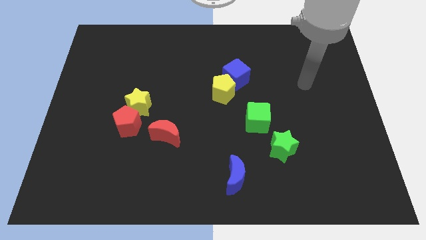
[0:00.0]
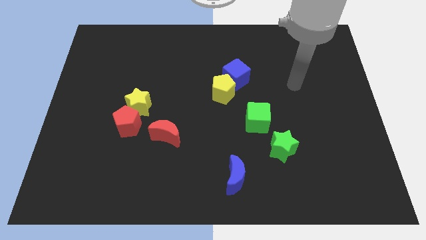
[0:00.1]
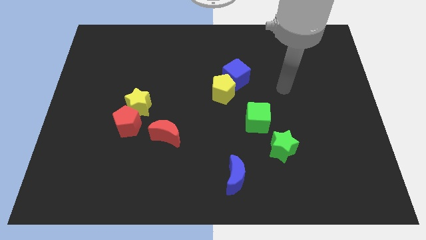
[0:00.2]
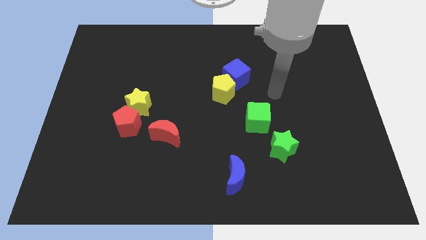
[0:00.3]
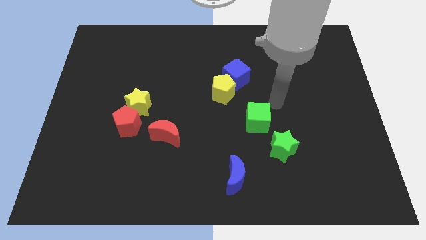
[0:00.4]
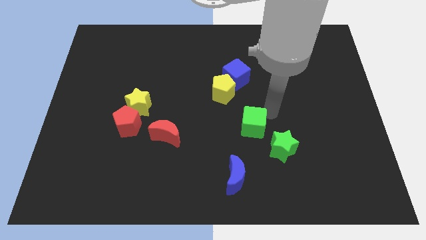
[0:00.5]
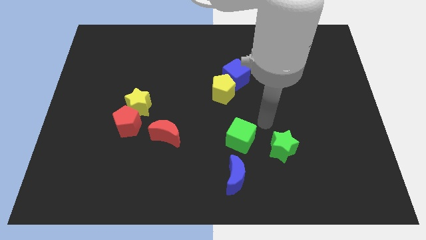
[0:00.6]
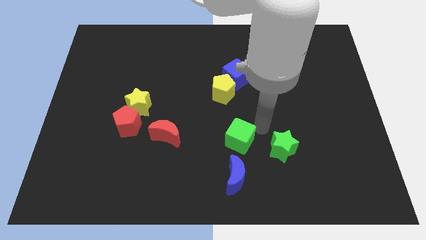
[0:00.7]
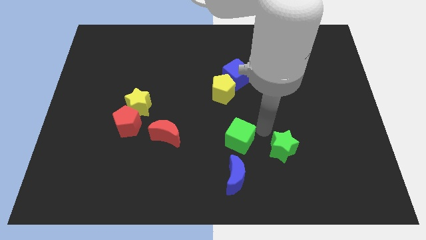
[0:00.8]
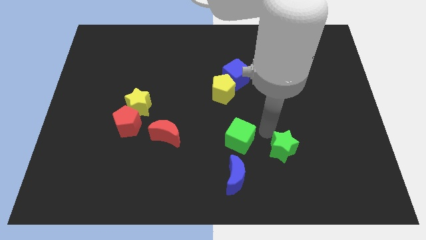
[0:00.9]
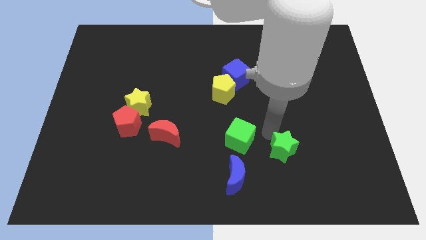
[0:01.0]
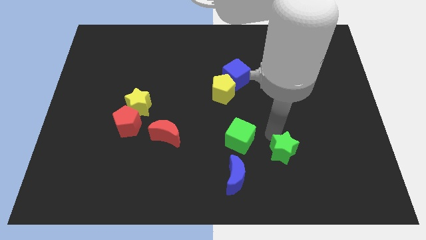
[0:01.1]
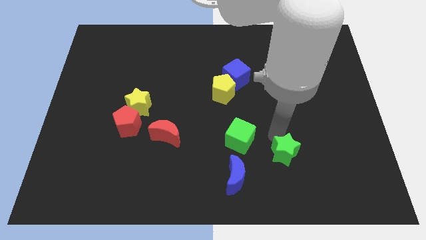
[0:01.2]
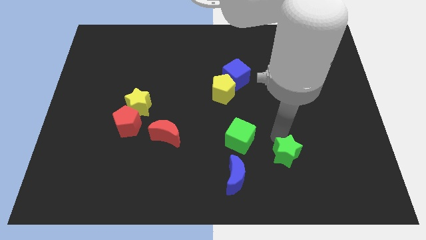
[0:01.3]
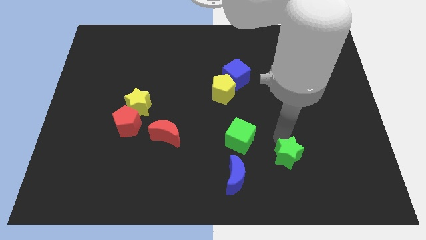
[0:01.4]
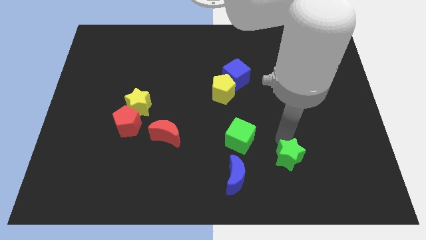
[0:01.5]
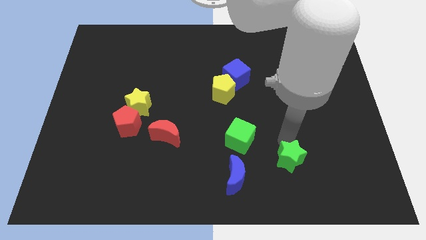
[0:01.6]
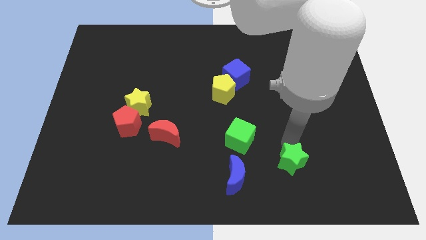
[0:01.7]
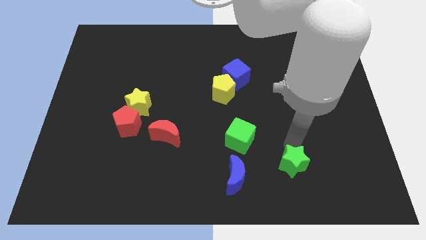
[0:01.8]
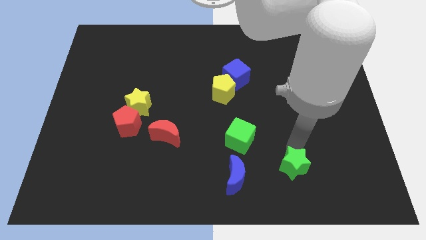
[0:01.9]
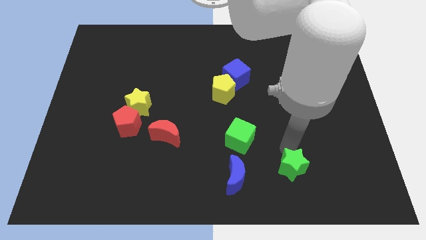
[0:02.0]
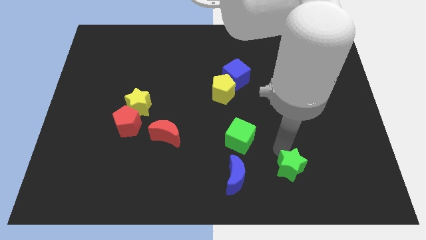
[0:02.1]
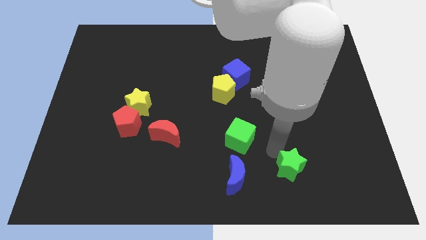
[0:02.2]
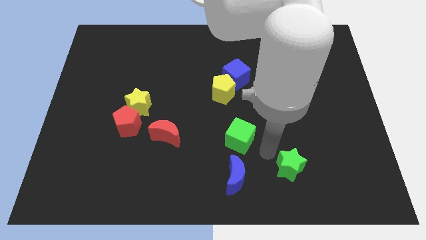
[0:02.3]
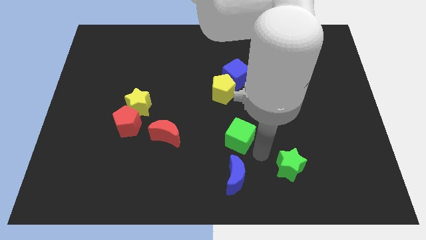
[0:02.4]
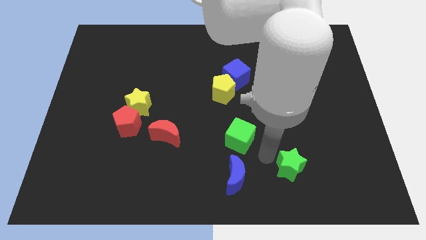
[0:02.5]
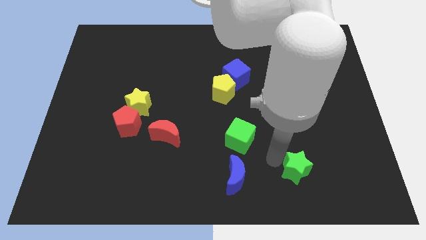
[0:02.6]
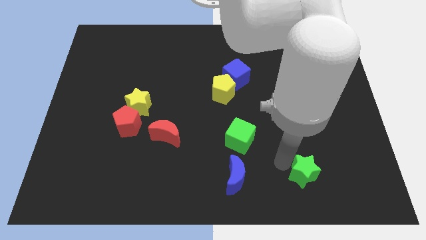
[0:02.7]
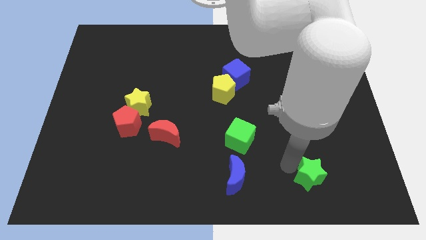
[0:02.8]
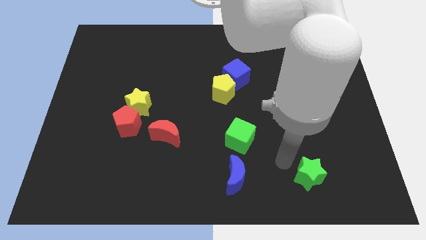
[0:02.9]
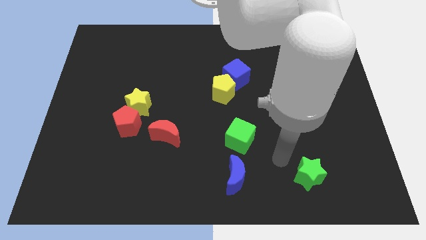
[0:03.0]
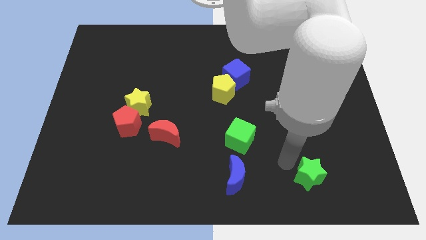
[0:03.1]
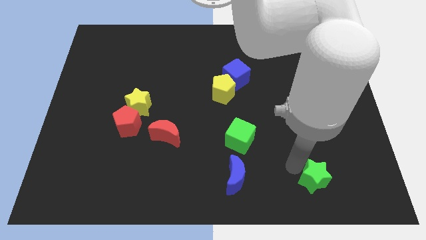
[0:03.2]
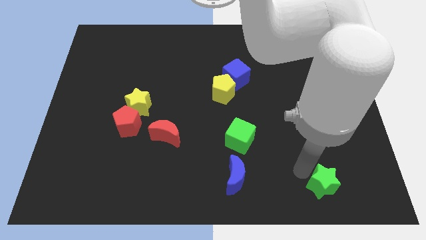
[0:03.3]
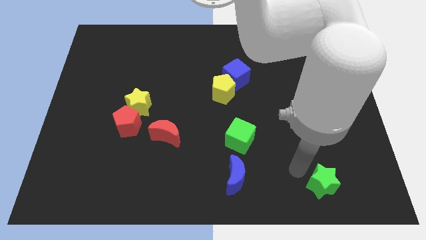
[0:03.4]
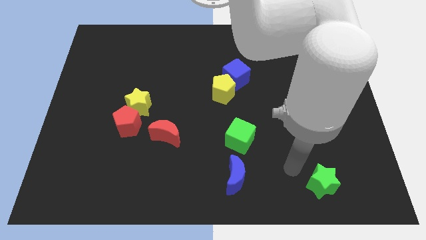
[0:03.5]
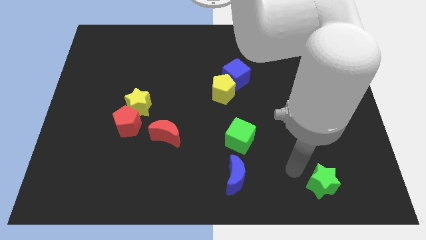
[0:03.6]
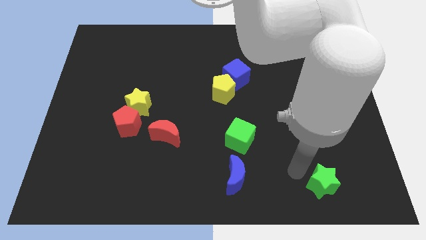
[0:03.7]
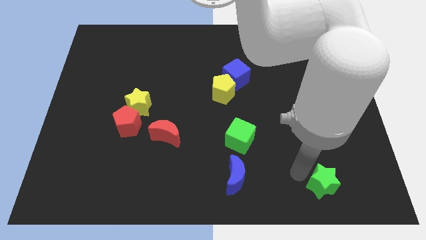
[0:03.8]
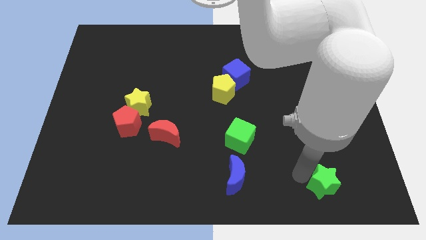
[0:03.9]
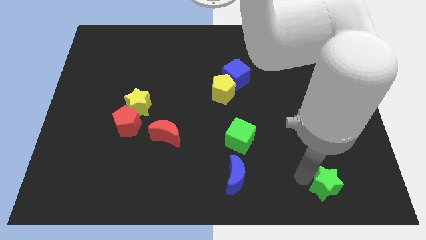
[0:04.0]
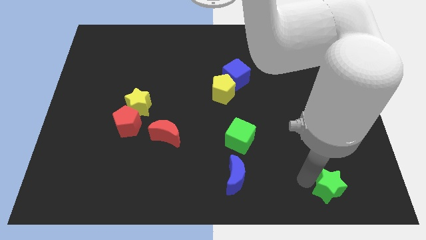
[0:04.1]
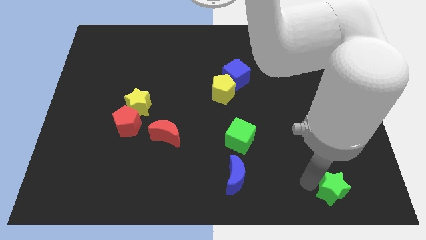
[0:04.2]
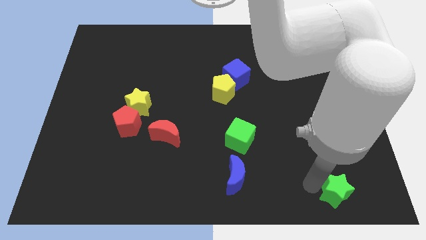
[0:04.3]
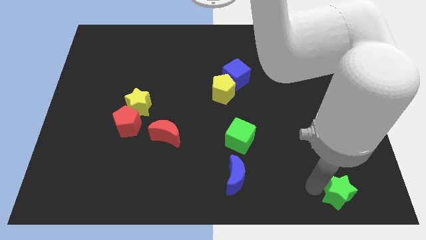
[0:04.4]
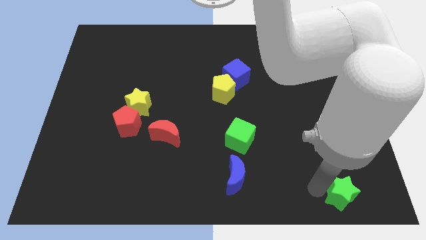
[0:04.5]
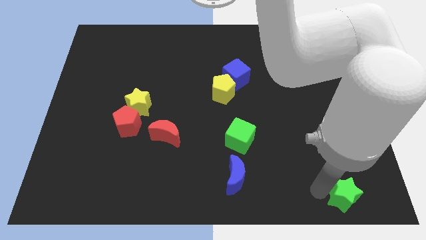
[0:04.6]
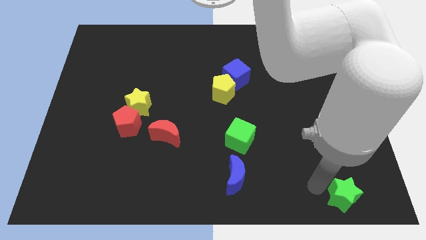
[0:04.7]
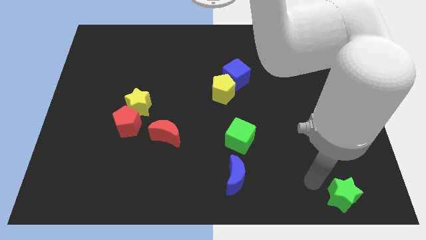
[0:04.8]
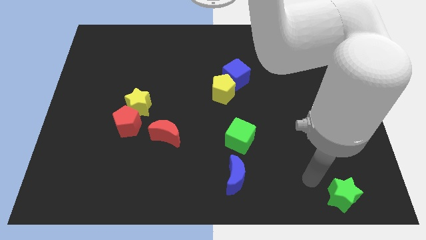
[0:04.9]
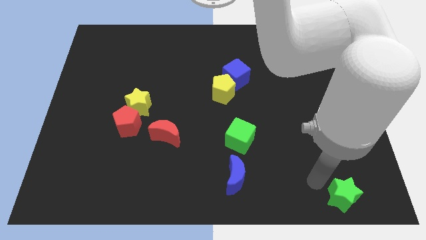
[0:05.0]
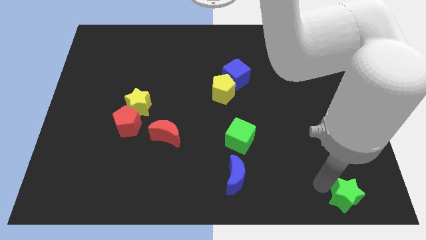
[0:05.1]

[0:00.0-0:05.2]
push the green star to the bottom right

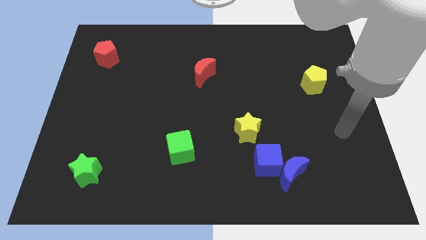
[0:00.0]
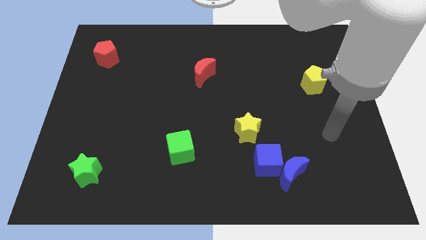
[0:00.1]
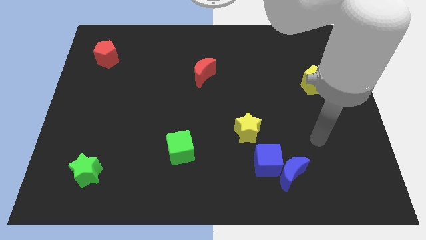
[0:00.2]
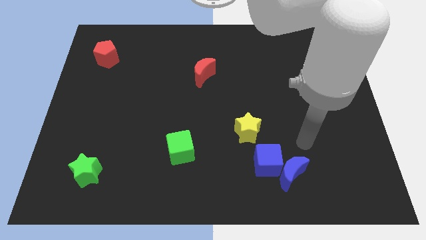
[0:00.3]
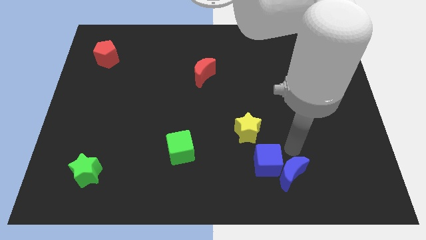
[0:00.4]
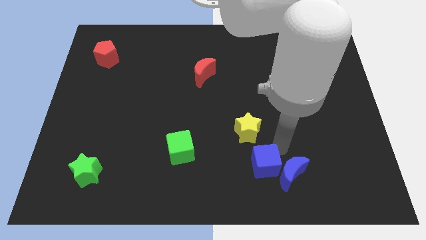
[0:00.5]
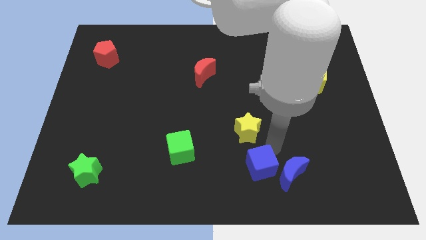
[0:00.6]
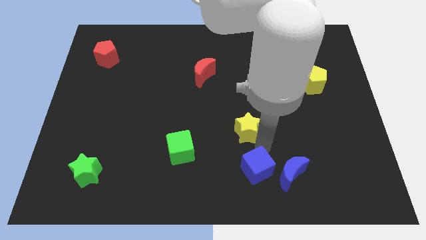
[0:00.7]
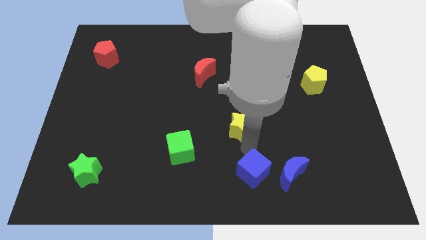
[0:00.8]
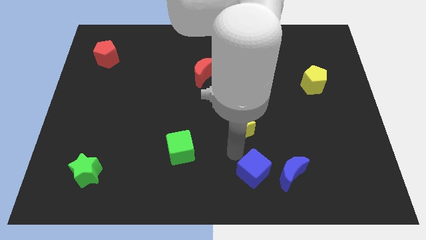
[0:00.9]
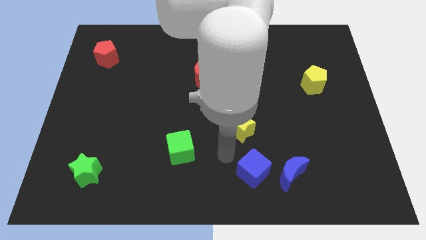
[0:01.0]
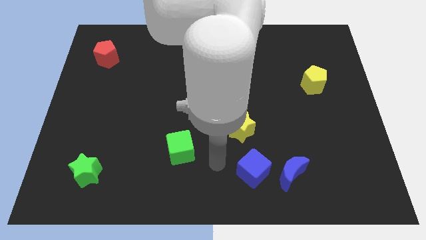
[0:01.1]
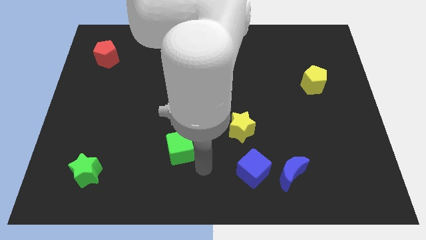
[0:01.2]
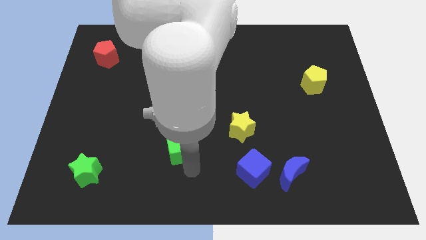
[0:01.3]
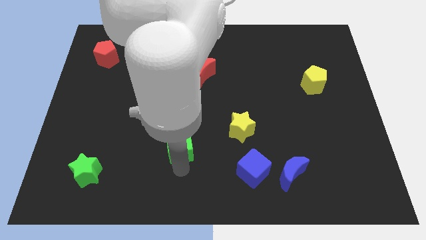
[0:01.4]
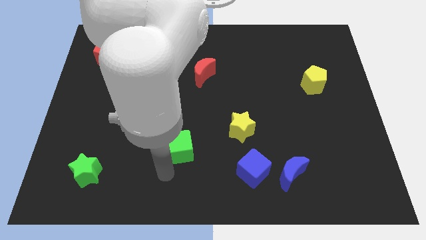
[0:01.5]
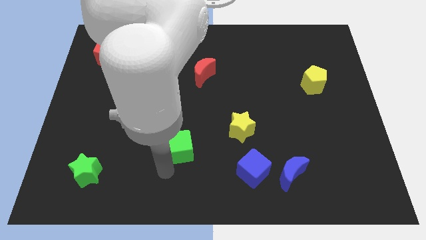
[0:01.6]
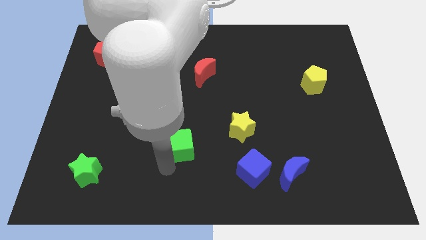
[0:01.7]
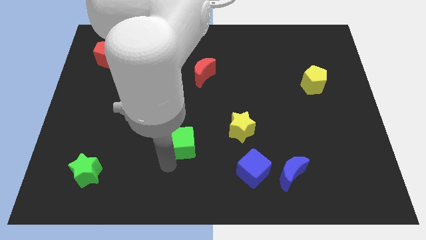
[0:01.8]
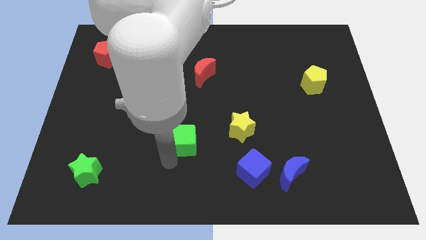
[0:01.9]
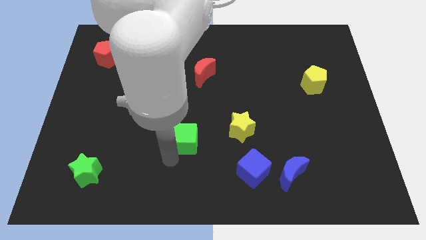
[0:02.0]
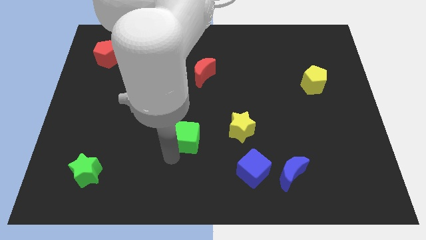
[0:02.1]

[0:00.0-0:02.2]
slide the green cube to the middle of the board

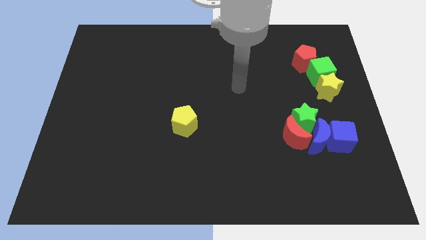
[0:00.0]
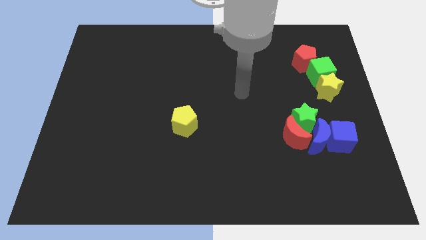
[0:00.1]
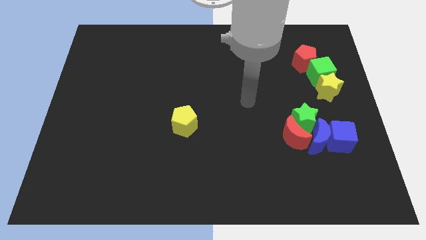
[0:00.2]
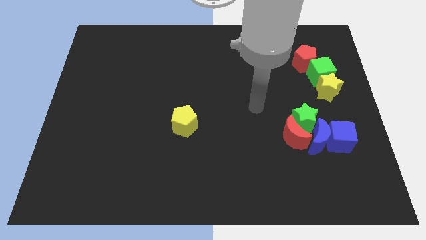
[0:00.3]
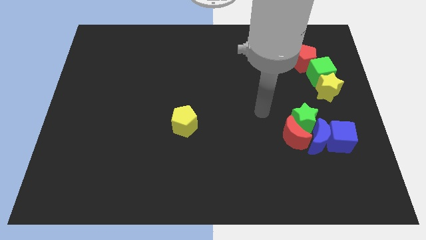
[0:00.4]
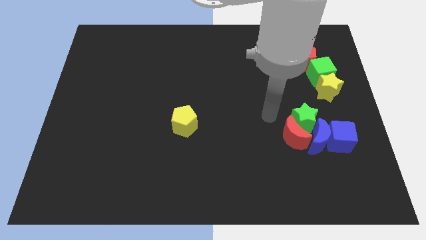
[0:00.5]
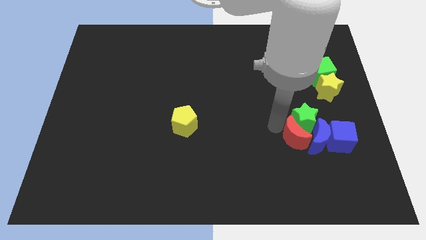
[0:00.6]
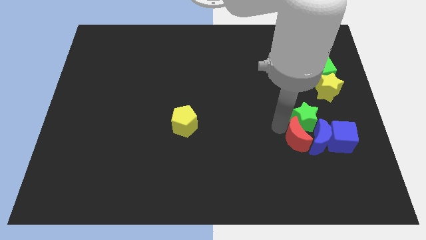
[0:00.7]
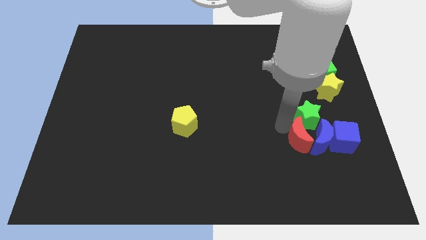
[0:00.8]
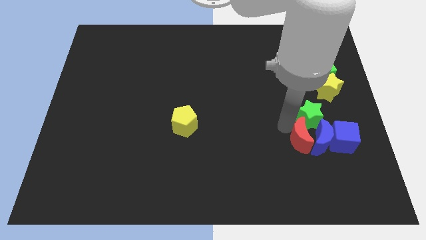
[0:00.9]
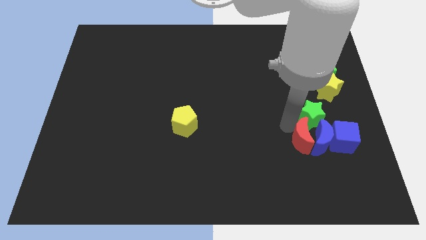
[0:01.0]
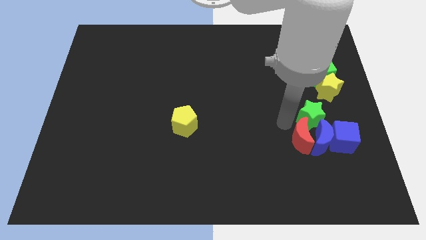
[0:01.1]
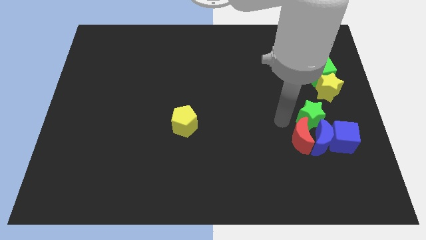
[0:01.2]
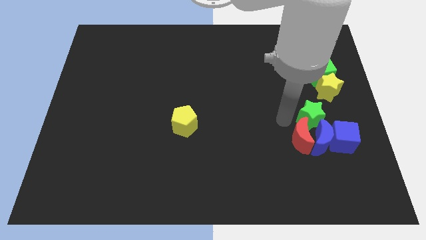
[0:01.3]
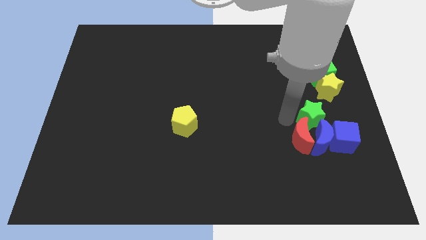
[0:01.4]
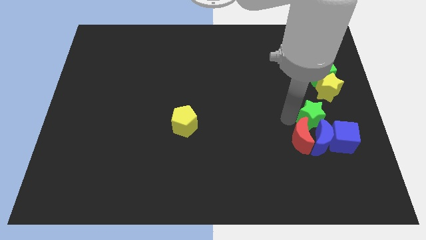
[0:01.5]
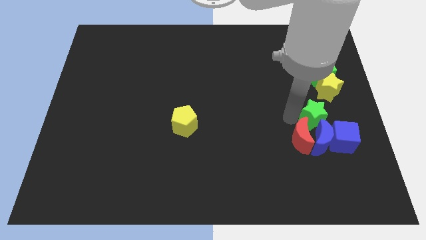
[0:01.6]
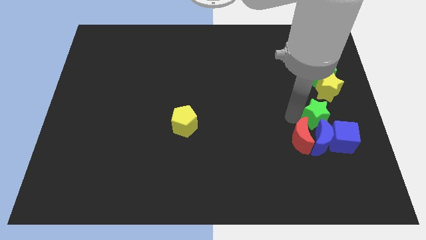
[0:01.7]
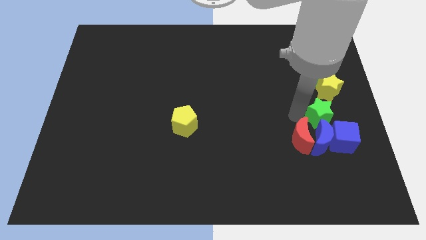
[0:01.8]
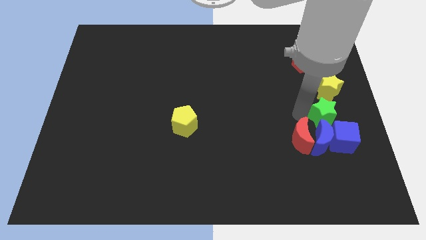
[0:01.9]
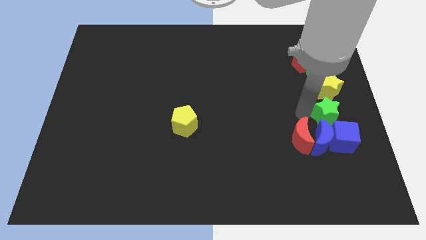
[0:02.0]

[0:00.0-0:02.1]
push the green star to the right side
